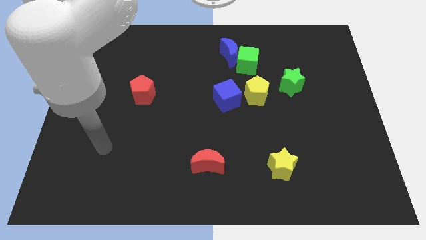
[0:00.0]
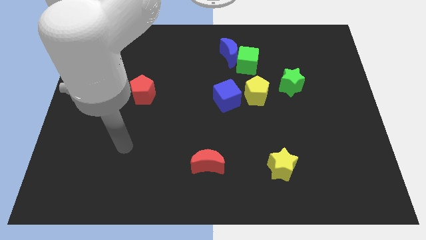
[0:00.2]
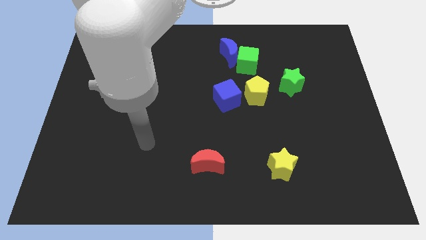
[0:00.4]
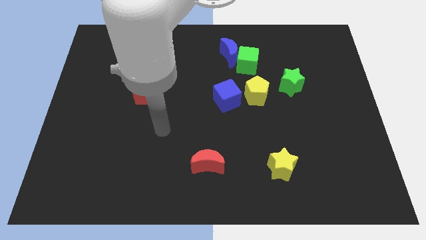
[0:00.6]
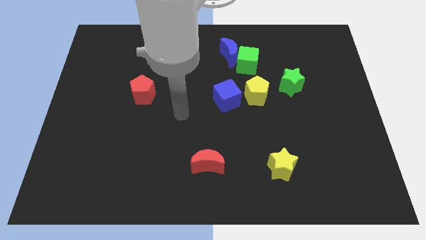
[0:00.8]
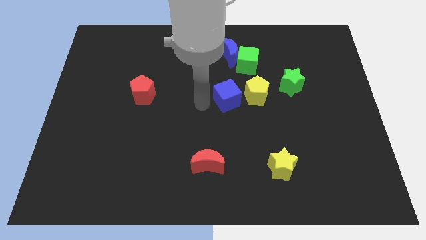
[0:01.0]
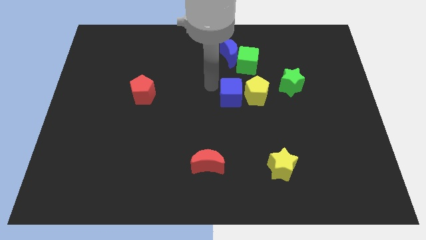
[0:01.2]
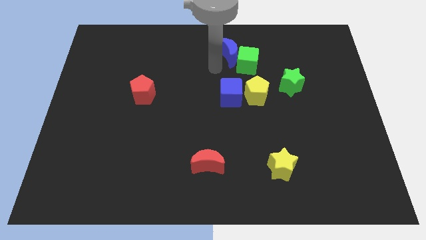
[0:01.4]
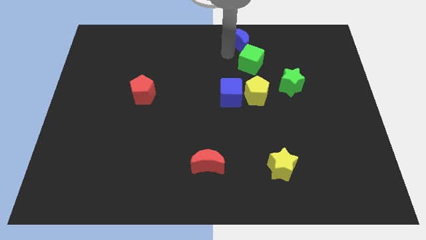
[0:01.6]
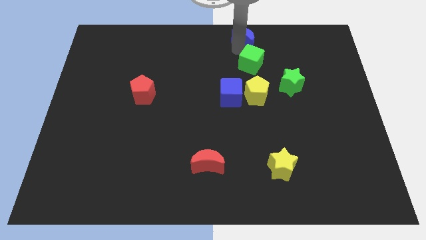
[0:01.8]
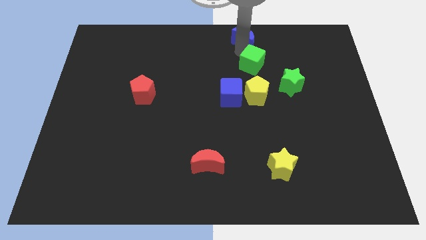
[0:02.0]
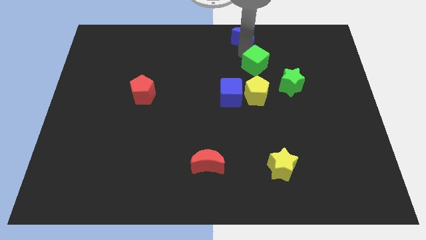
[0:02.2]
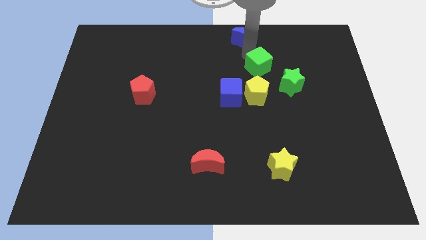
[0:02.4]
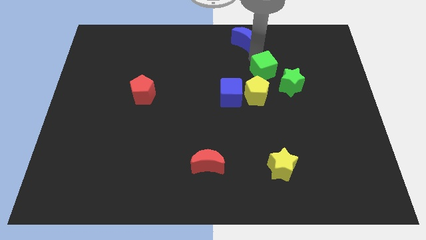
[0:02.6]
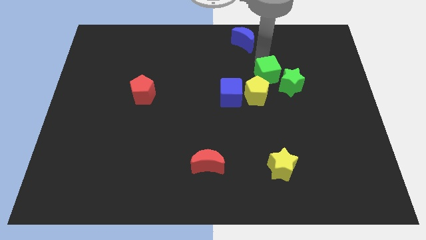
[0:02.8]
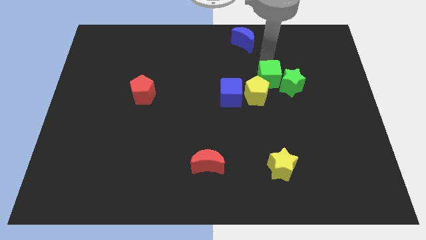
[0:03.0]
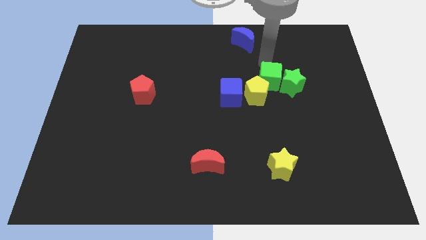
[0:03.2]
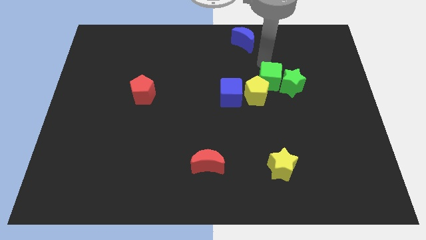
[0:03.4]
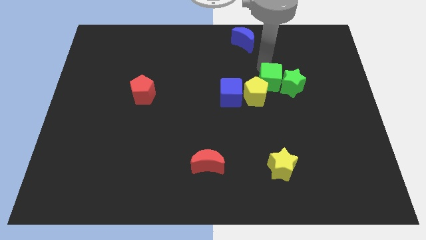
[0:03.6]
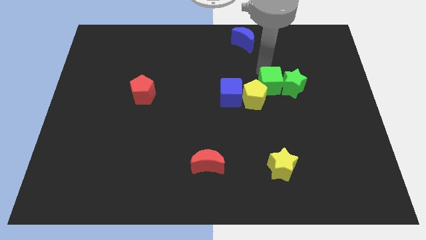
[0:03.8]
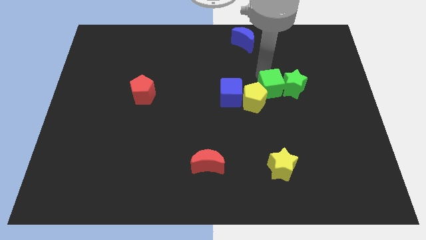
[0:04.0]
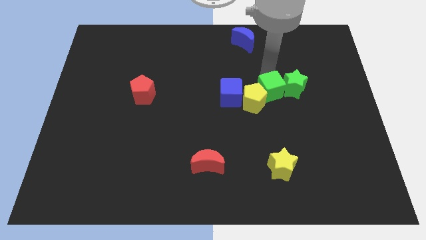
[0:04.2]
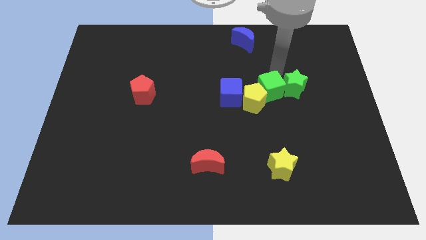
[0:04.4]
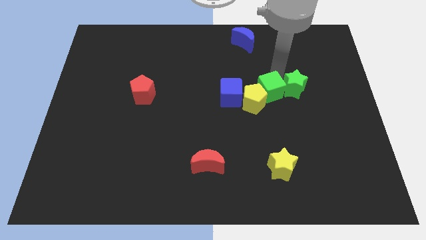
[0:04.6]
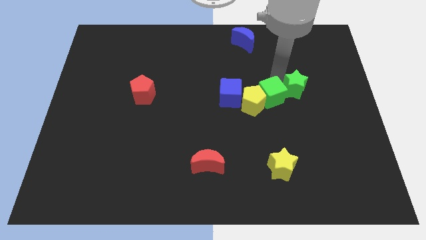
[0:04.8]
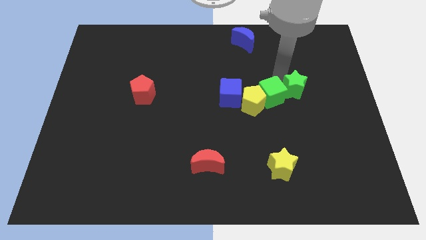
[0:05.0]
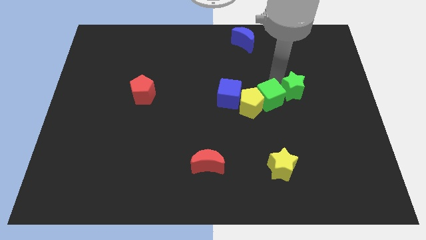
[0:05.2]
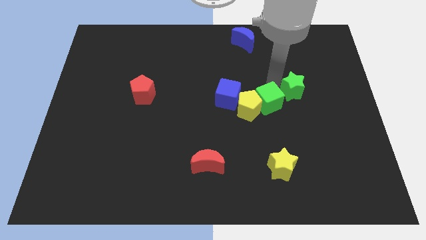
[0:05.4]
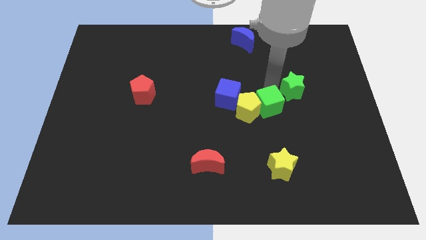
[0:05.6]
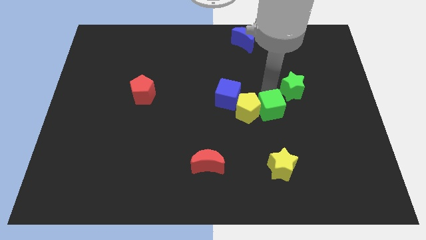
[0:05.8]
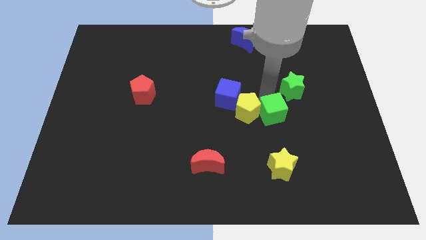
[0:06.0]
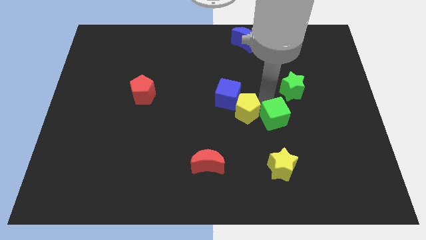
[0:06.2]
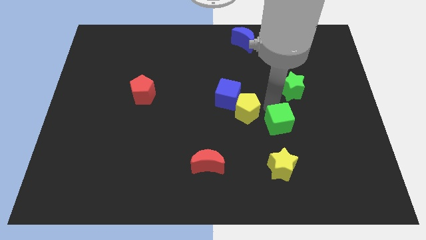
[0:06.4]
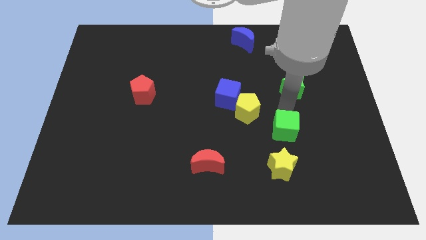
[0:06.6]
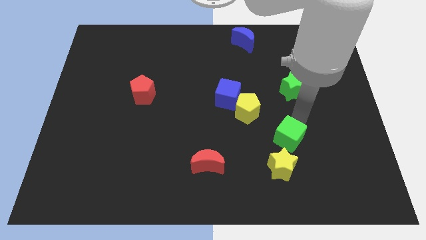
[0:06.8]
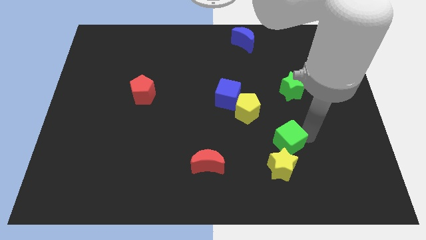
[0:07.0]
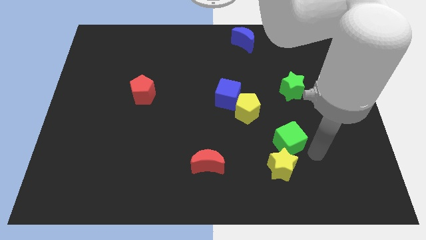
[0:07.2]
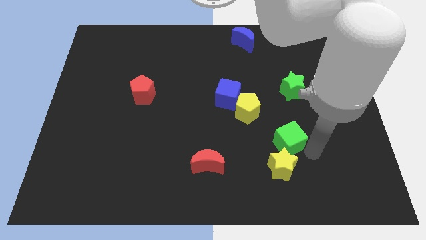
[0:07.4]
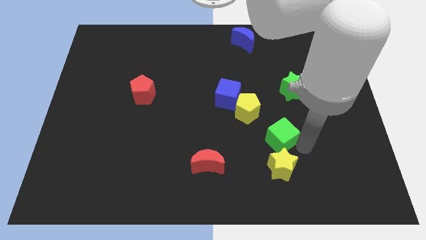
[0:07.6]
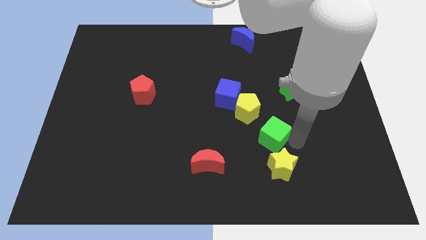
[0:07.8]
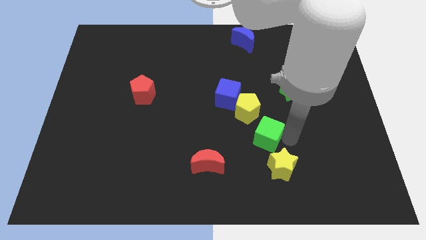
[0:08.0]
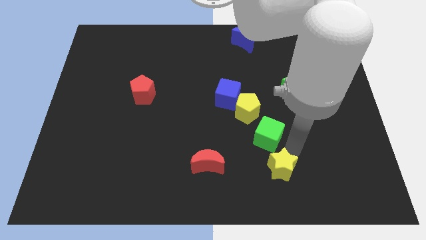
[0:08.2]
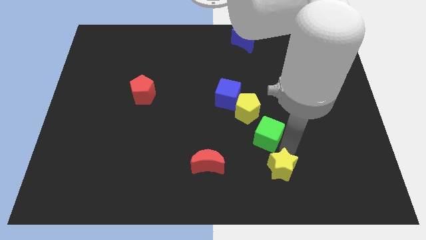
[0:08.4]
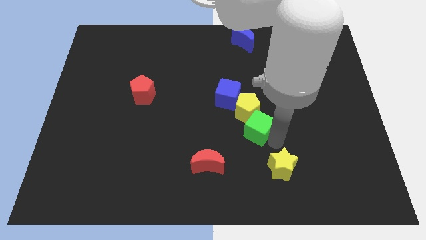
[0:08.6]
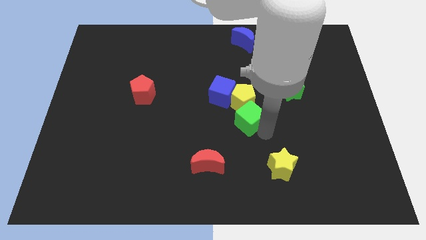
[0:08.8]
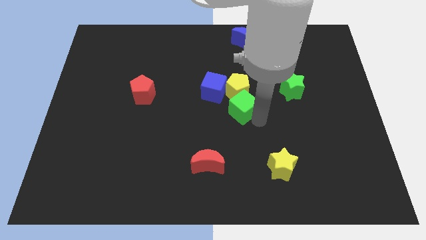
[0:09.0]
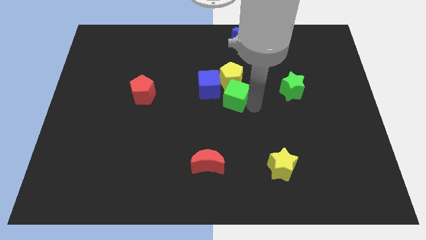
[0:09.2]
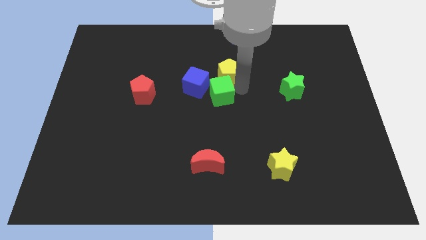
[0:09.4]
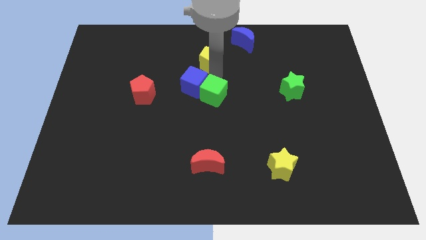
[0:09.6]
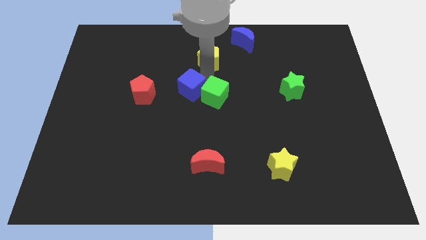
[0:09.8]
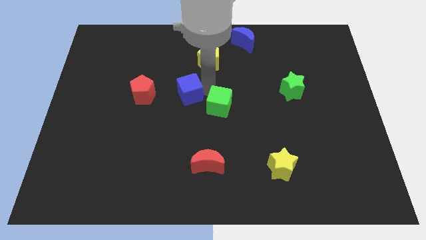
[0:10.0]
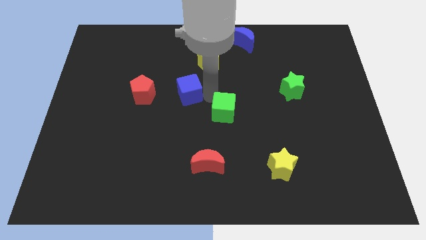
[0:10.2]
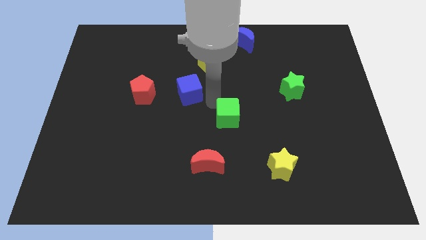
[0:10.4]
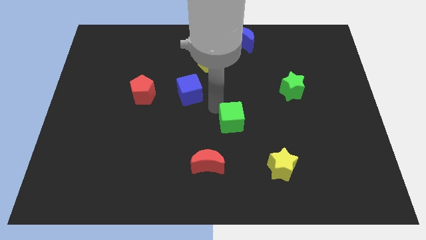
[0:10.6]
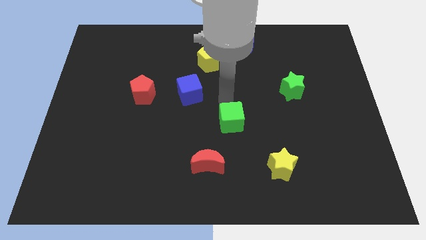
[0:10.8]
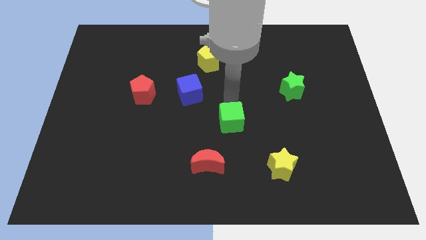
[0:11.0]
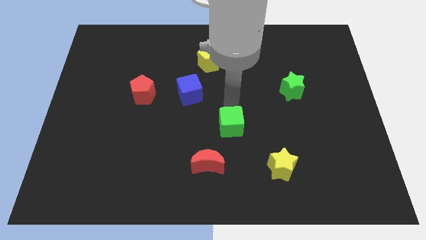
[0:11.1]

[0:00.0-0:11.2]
move the green cube to the top right of the red moon

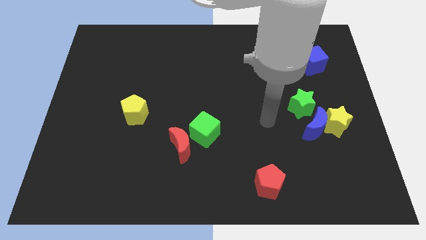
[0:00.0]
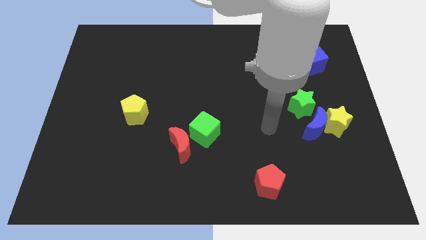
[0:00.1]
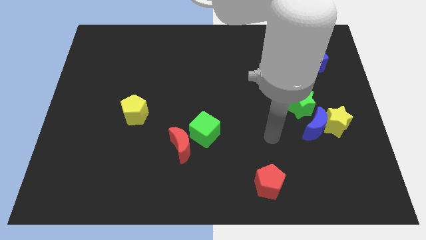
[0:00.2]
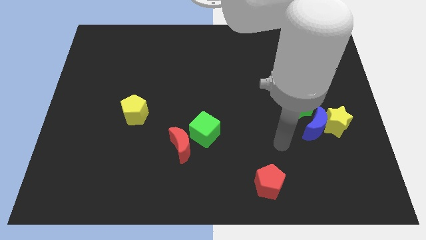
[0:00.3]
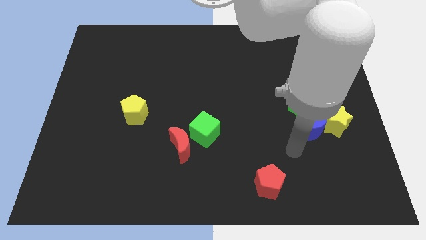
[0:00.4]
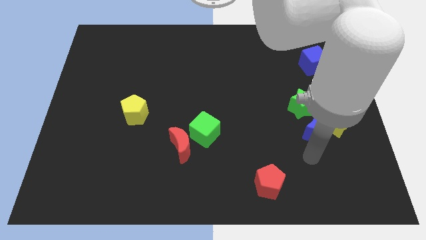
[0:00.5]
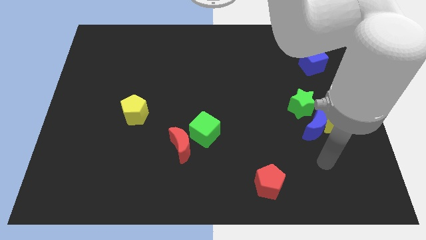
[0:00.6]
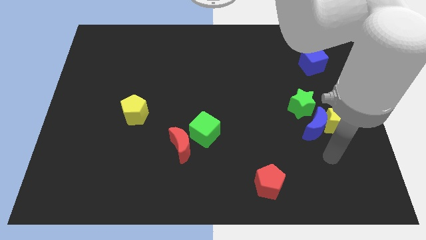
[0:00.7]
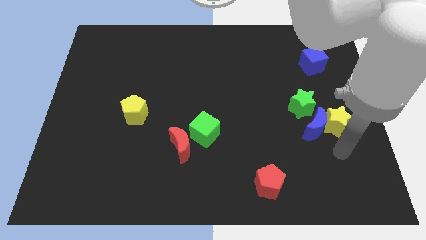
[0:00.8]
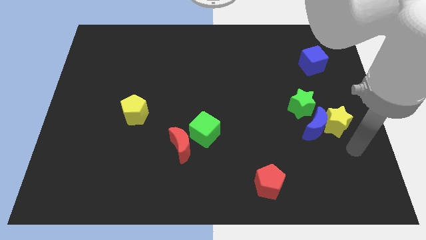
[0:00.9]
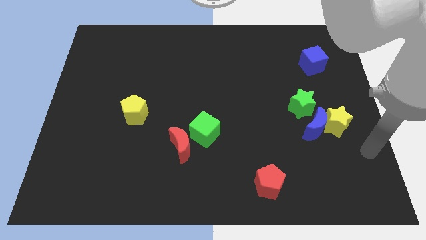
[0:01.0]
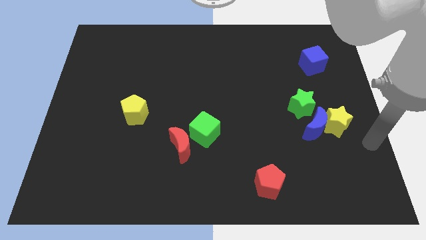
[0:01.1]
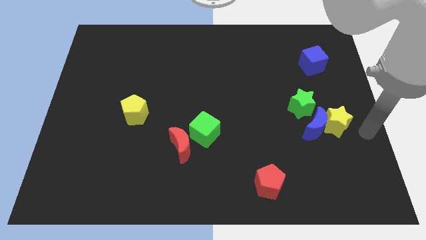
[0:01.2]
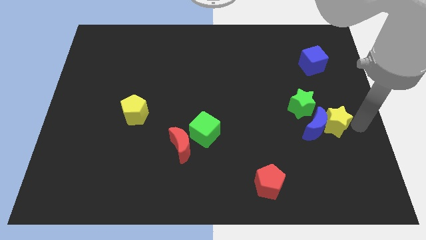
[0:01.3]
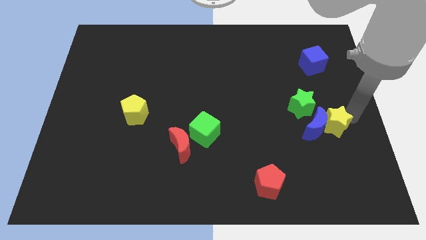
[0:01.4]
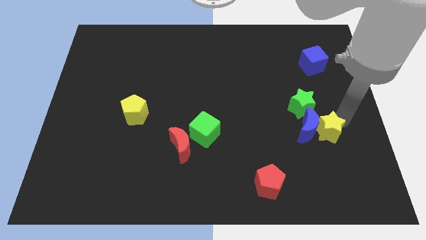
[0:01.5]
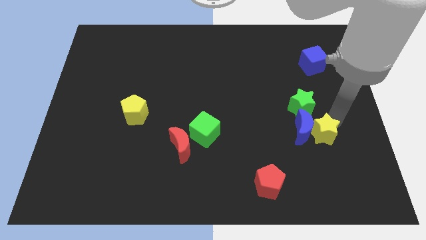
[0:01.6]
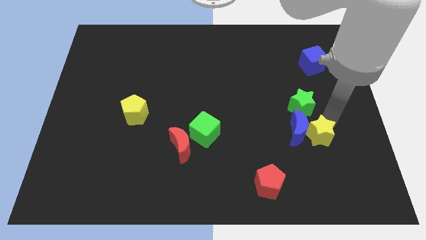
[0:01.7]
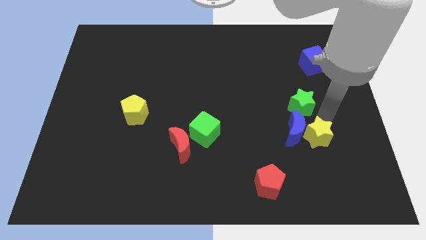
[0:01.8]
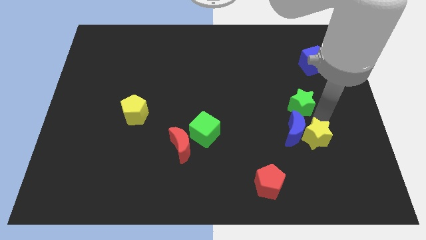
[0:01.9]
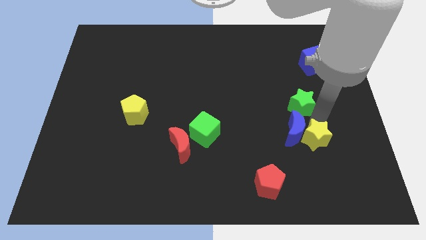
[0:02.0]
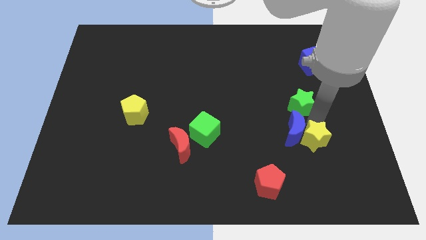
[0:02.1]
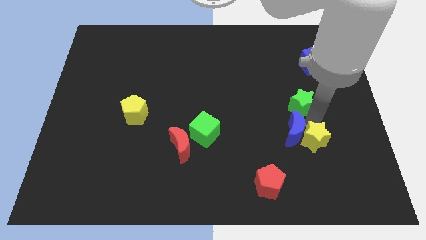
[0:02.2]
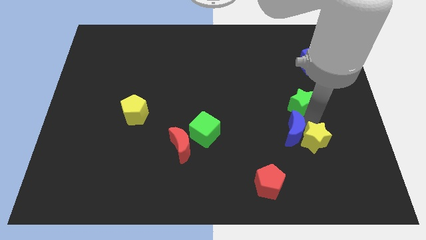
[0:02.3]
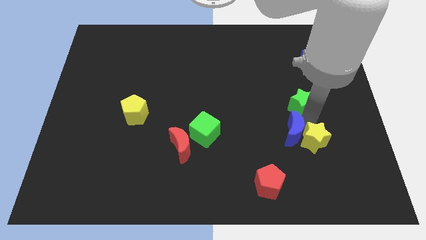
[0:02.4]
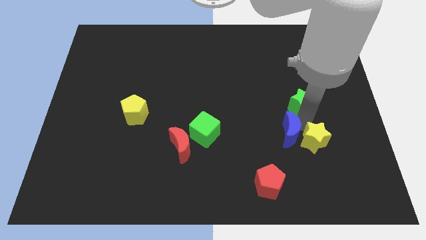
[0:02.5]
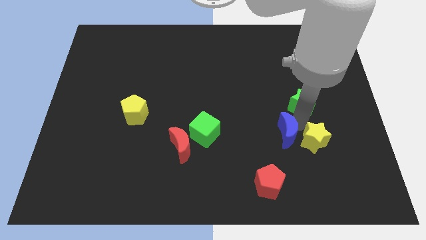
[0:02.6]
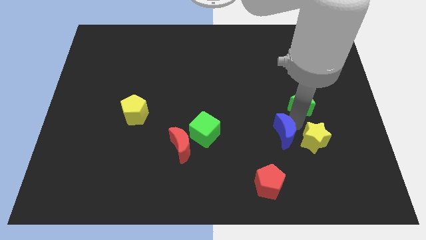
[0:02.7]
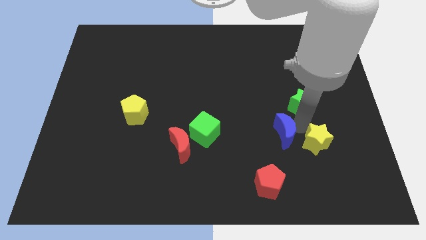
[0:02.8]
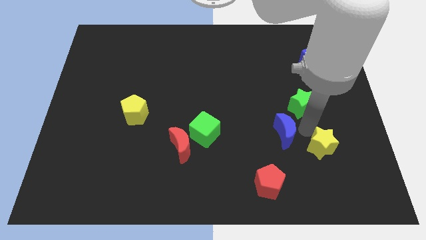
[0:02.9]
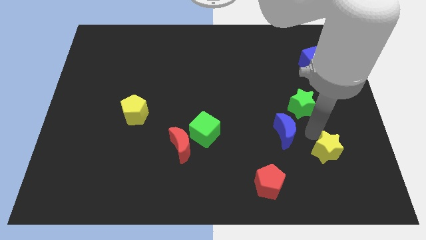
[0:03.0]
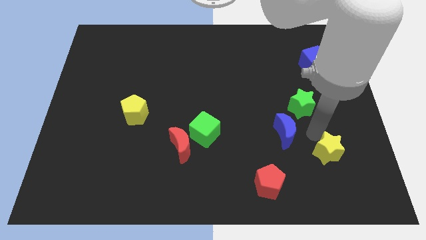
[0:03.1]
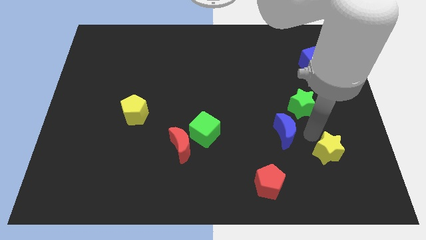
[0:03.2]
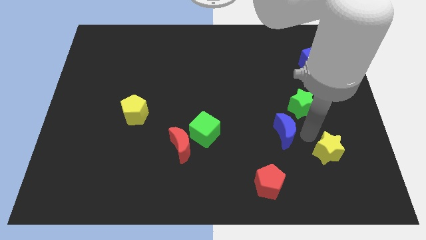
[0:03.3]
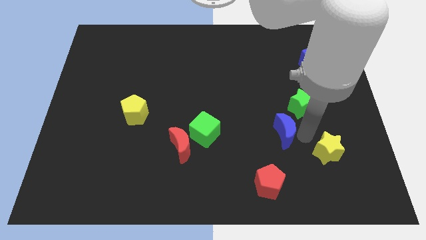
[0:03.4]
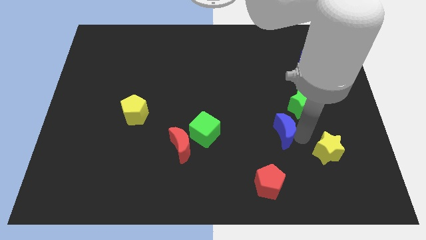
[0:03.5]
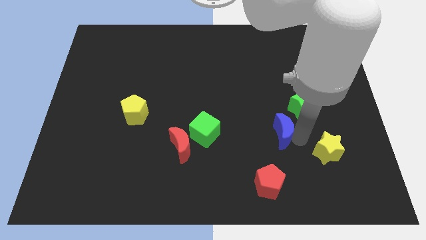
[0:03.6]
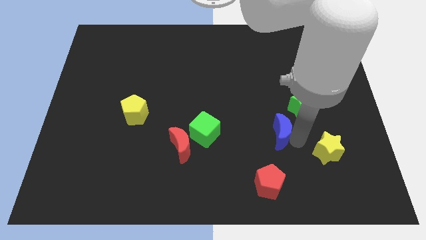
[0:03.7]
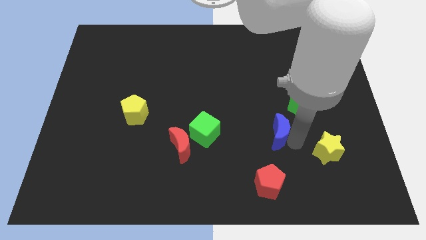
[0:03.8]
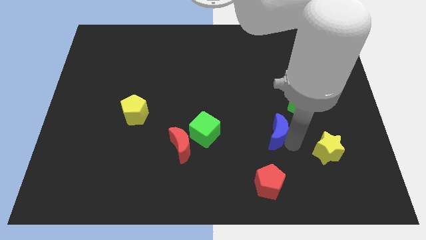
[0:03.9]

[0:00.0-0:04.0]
put the blue moon to the right side of the green cube
